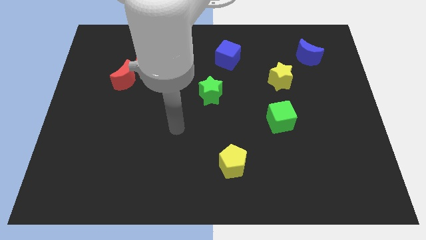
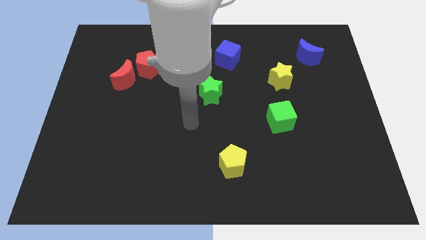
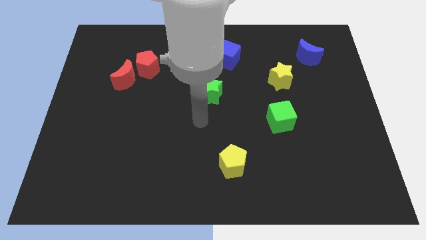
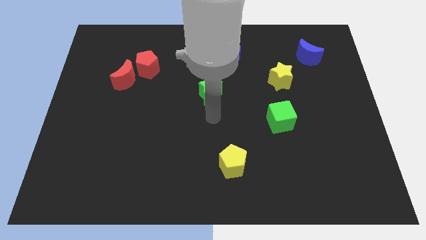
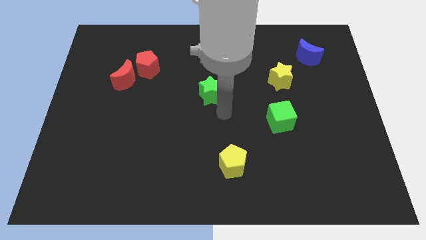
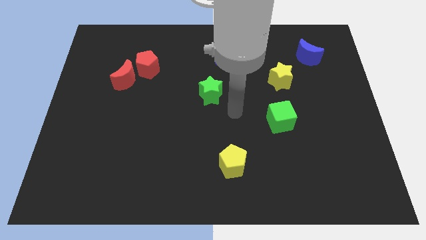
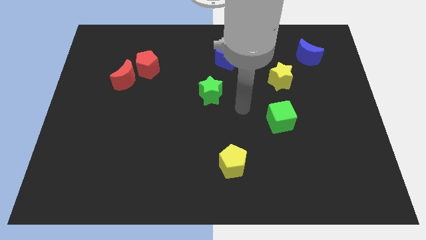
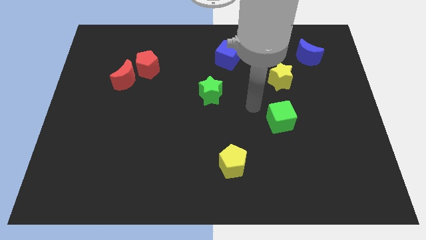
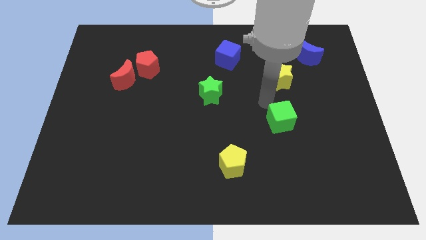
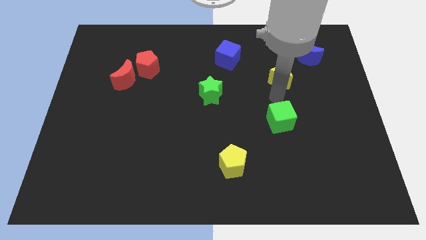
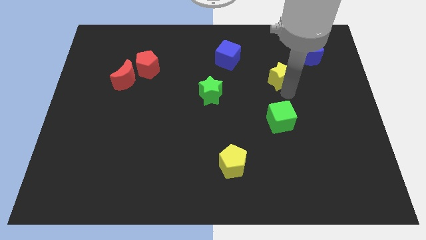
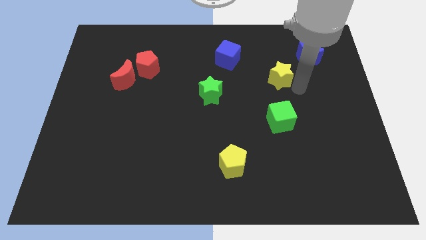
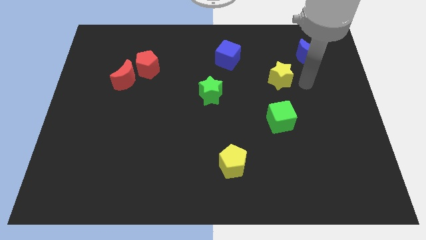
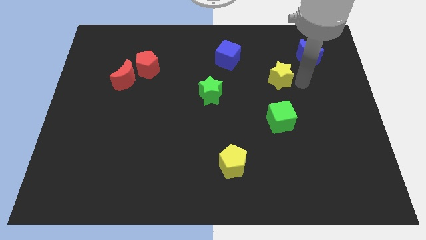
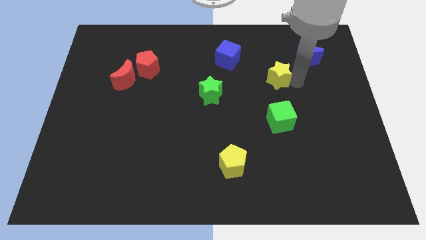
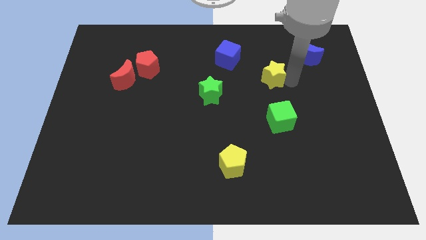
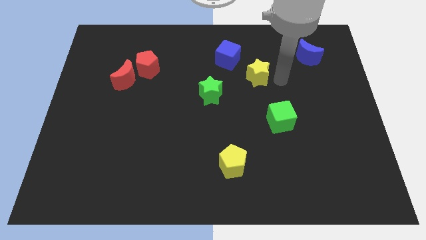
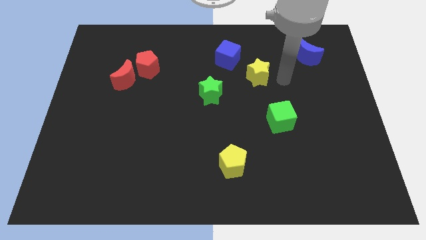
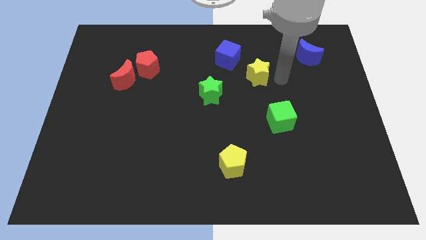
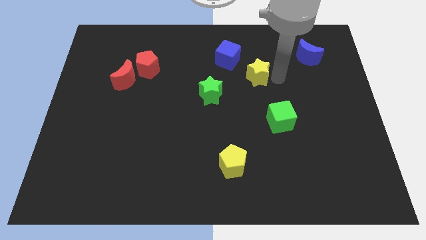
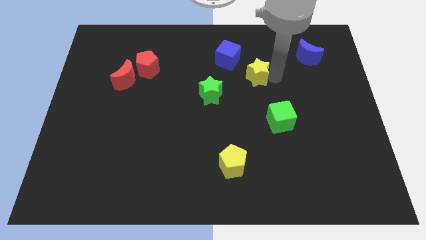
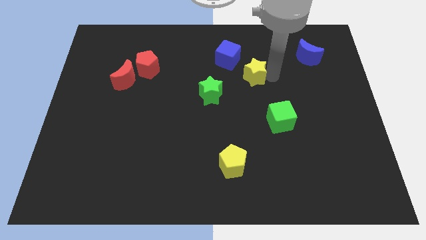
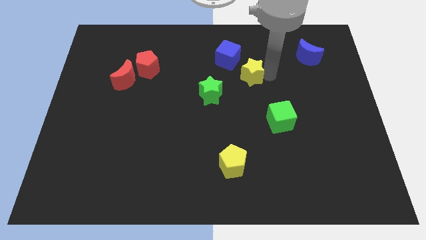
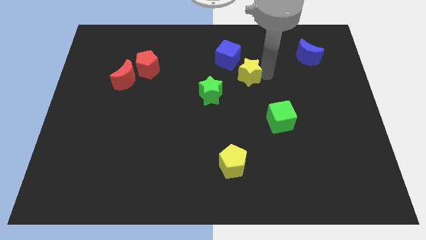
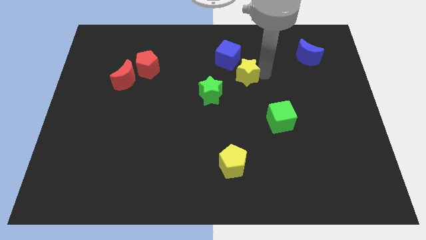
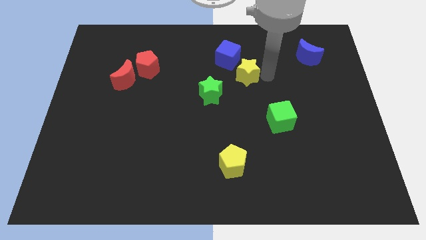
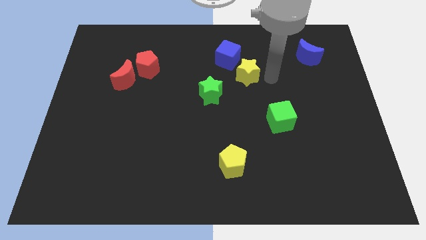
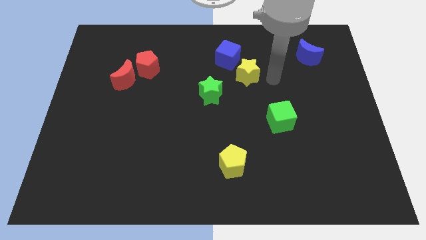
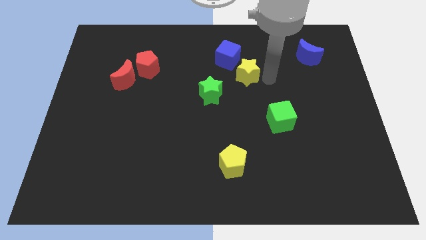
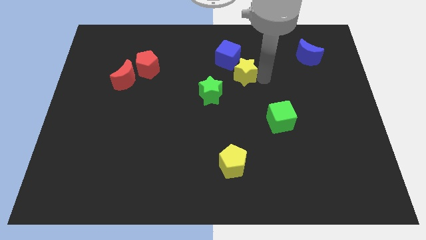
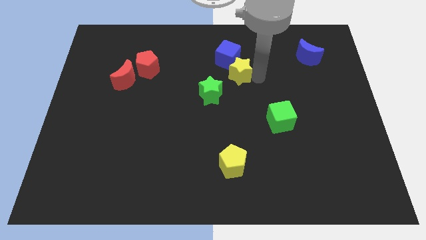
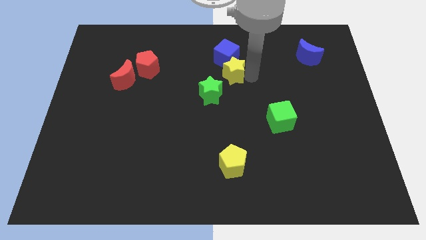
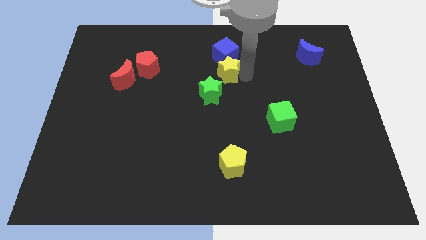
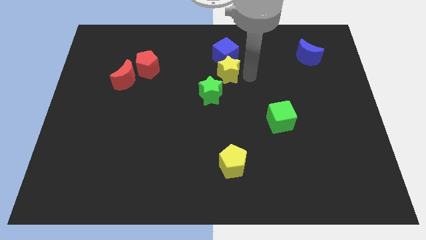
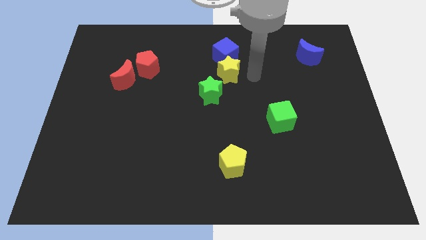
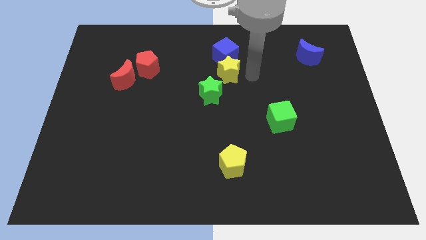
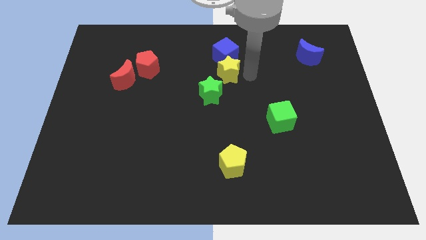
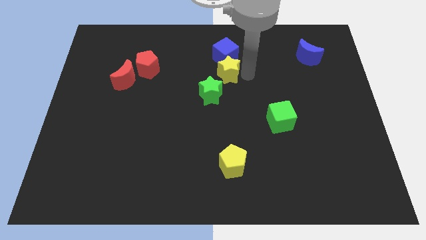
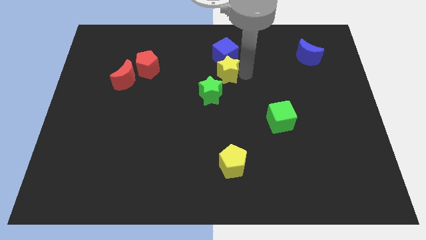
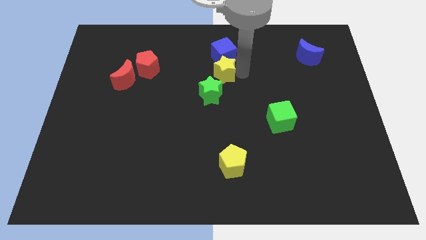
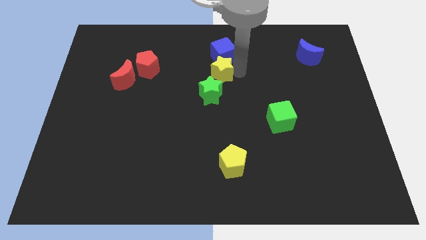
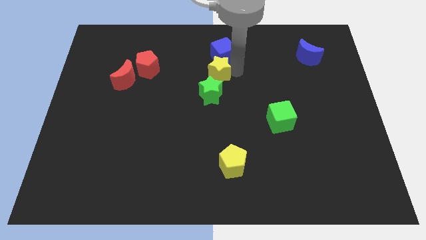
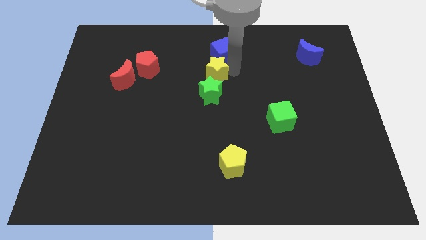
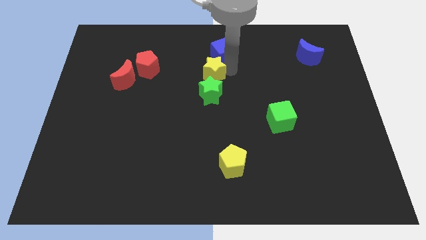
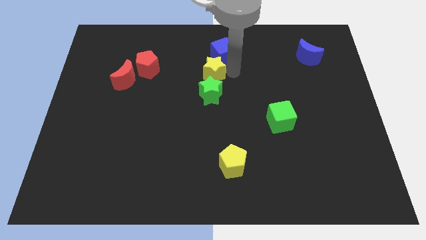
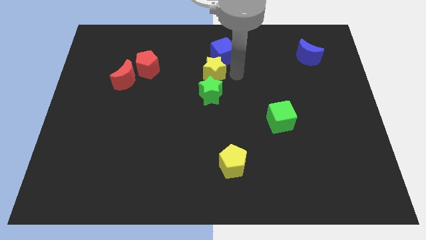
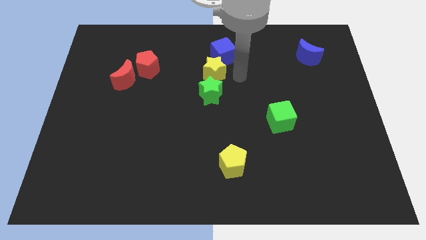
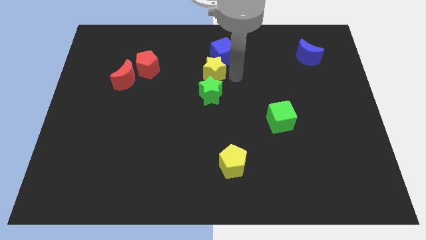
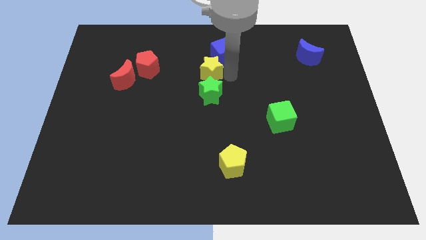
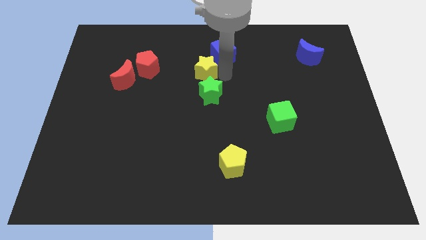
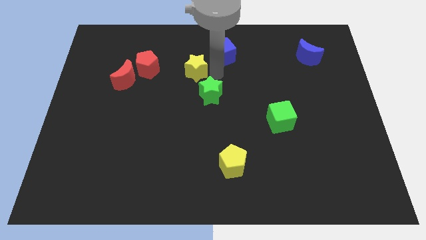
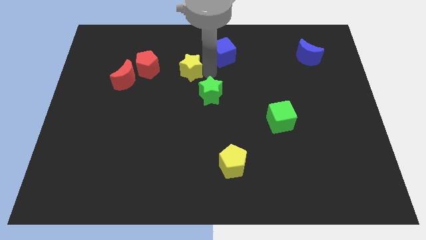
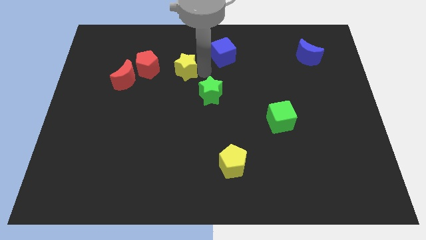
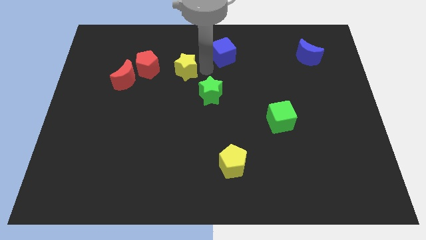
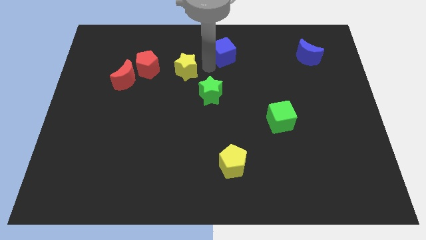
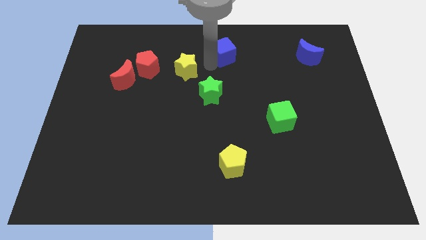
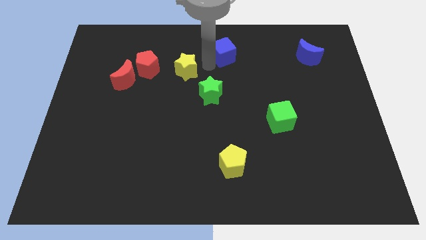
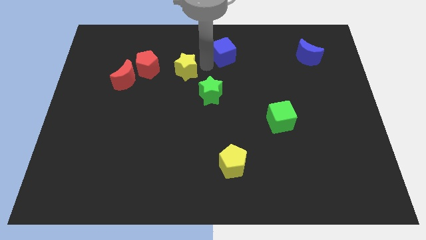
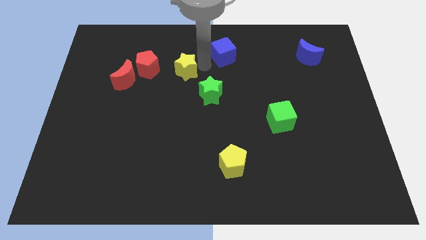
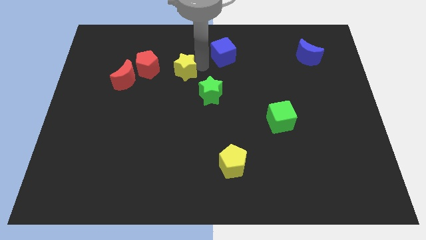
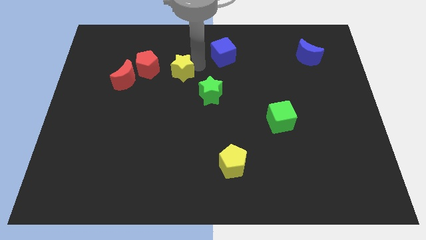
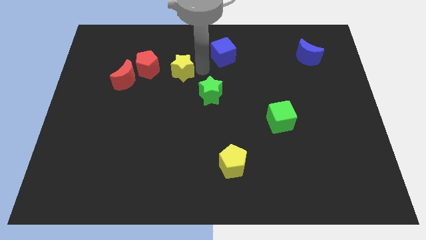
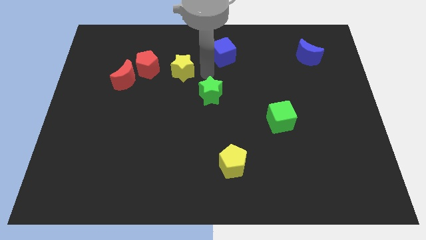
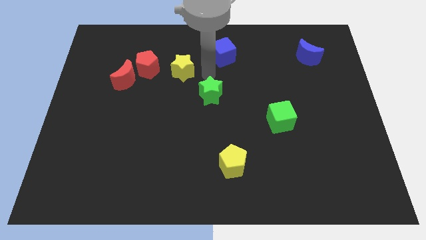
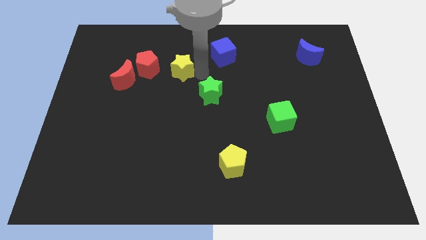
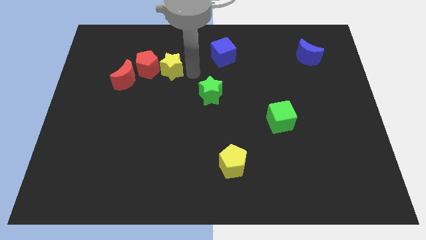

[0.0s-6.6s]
slide the yellow star next to the red pentagon

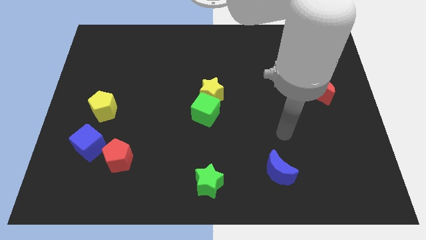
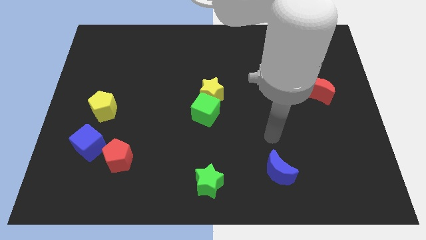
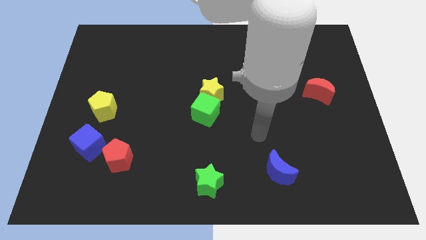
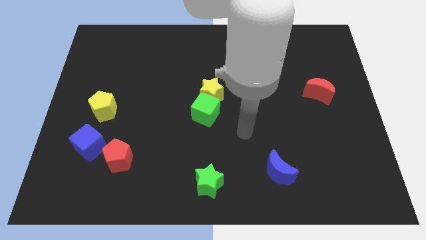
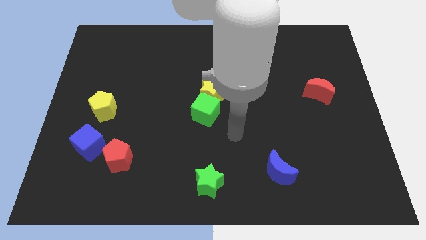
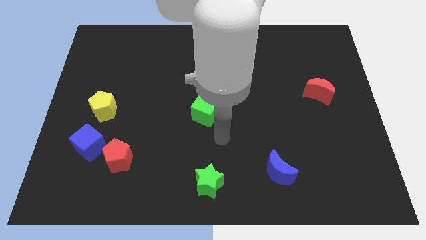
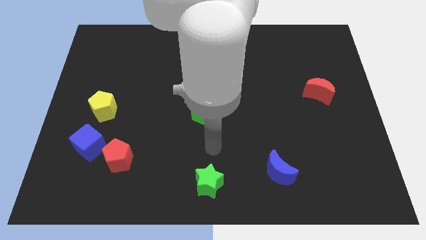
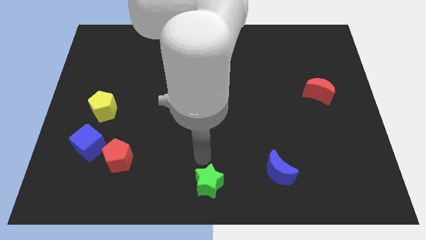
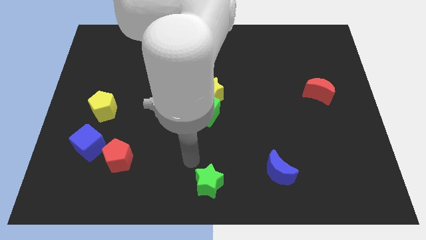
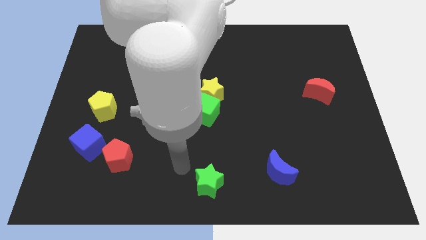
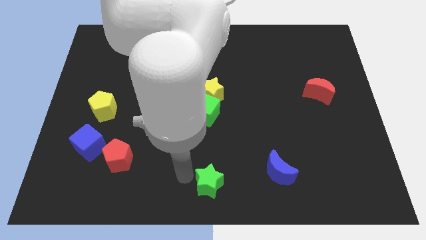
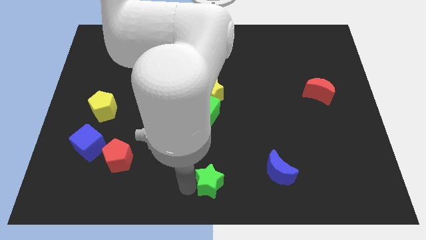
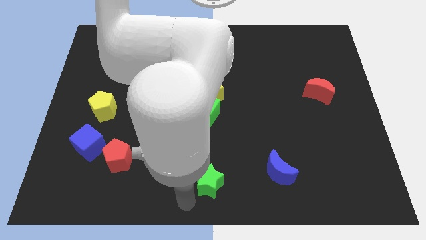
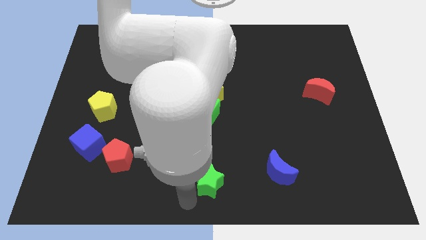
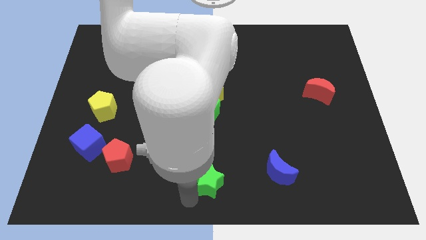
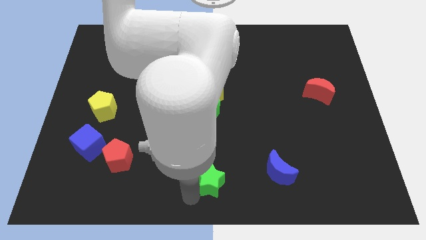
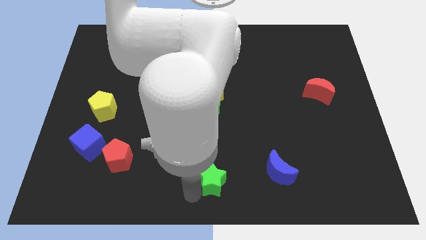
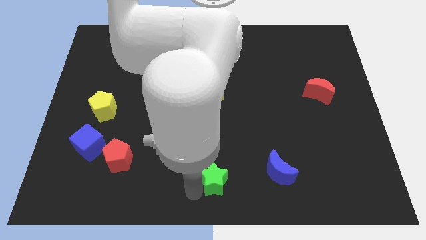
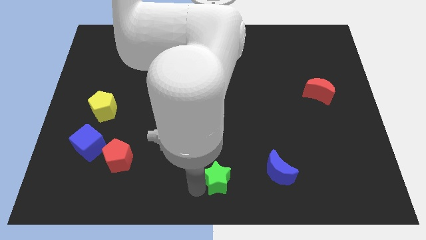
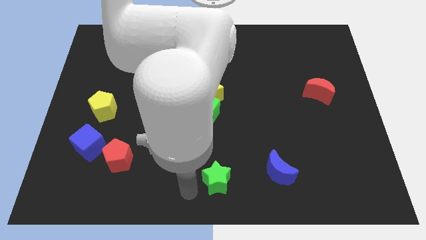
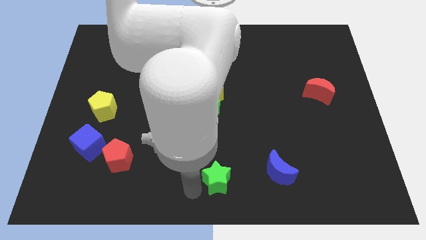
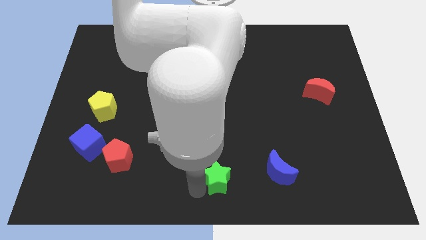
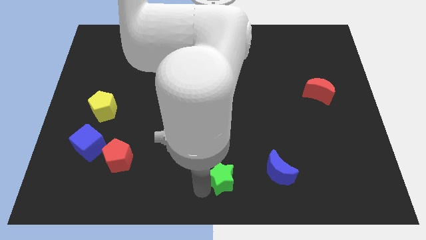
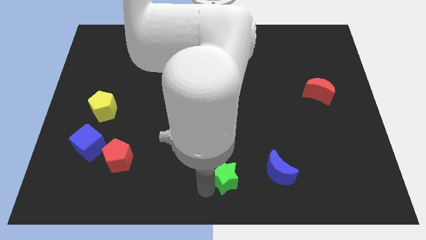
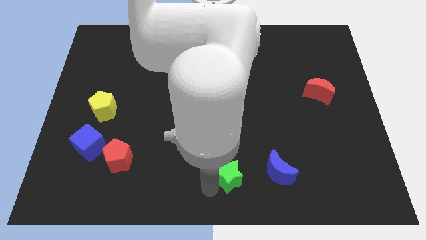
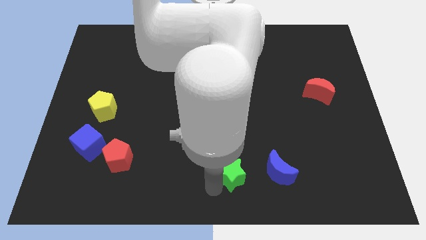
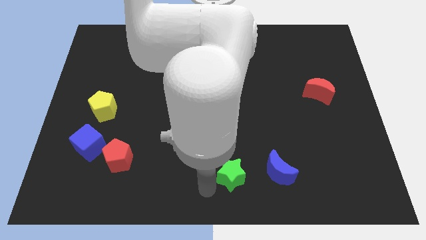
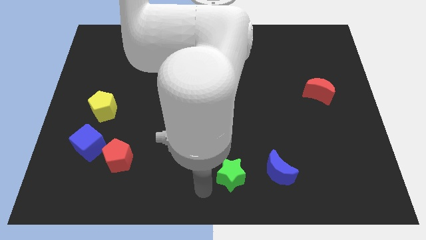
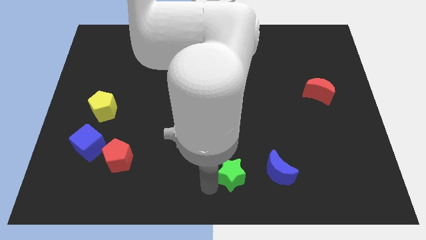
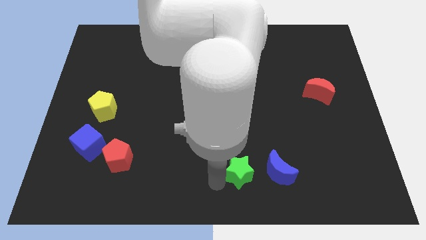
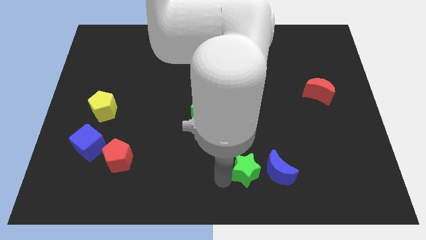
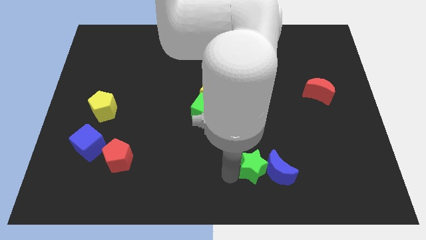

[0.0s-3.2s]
slide the green star towards the blue moon
